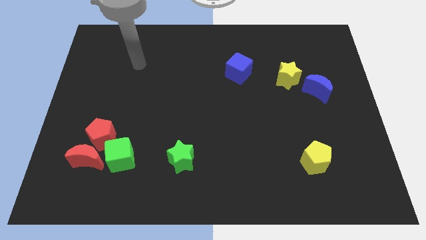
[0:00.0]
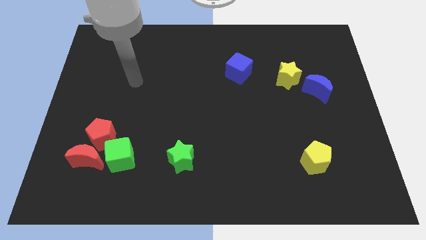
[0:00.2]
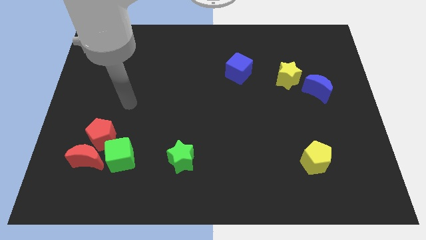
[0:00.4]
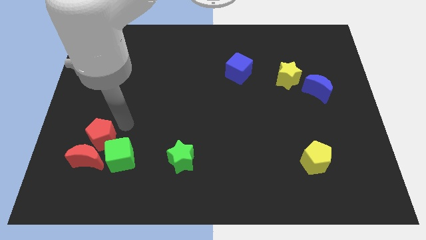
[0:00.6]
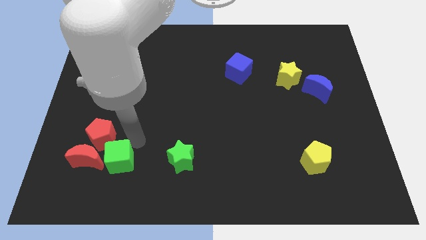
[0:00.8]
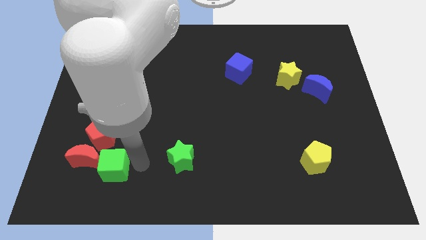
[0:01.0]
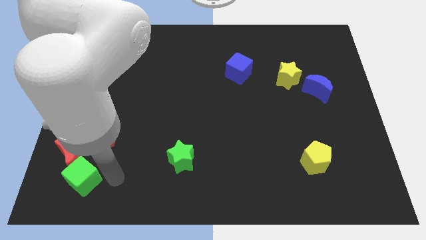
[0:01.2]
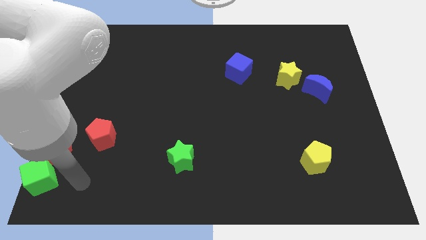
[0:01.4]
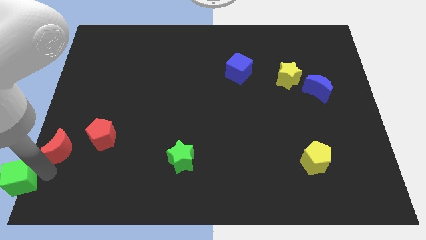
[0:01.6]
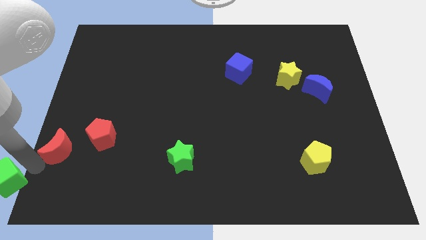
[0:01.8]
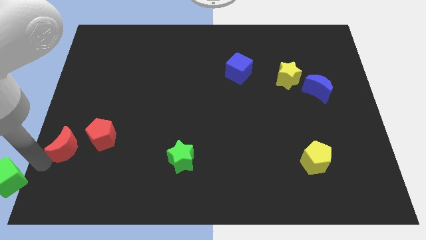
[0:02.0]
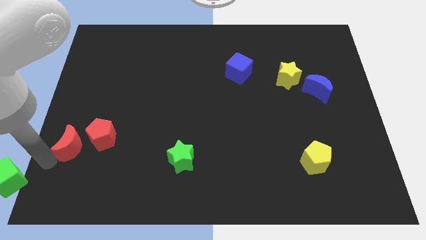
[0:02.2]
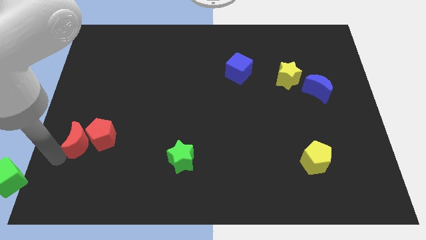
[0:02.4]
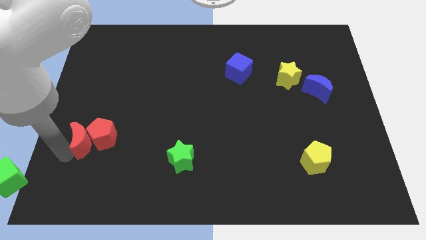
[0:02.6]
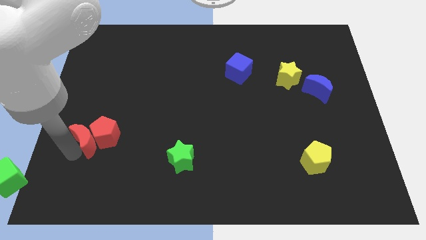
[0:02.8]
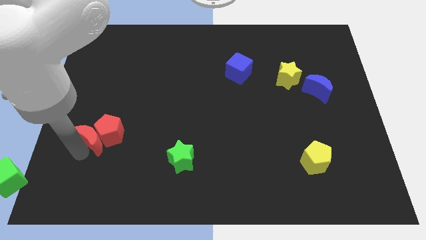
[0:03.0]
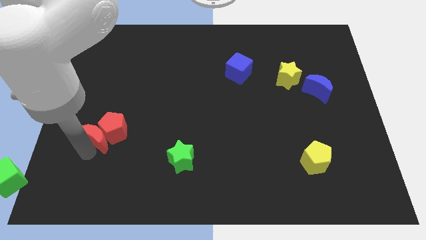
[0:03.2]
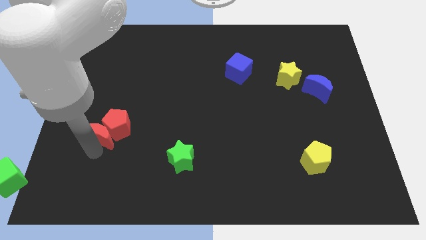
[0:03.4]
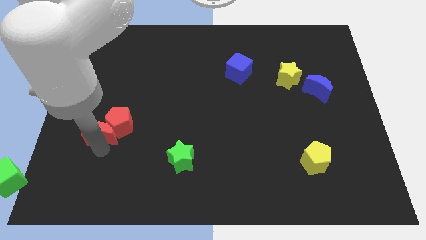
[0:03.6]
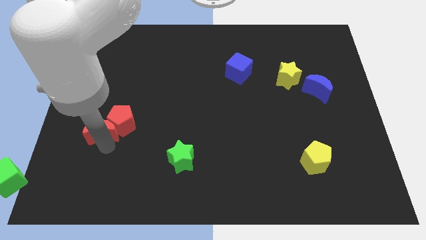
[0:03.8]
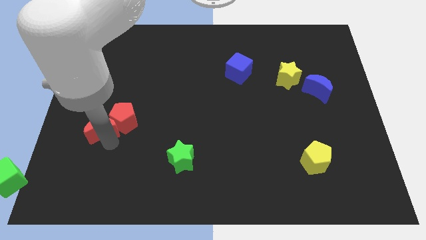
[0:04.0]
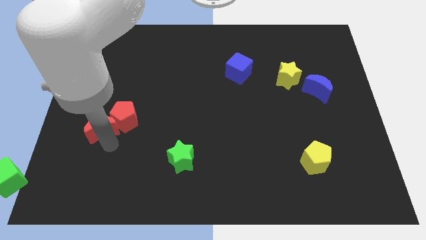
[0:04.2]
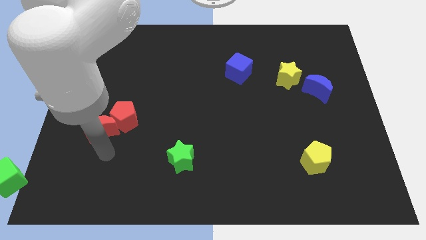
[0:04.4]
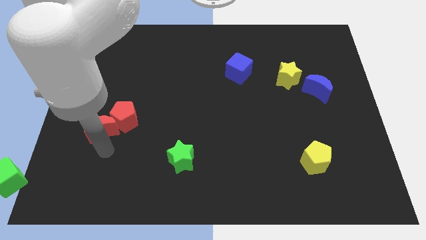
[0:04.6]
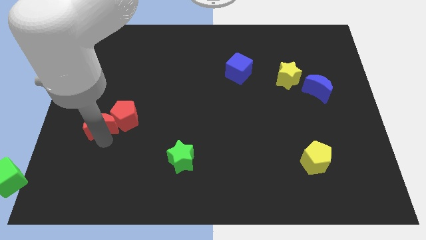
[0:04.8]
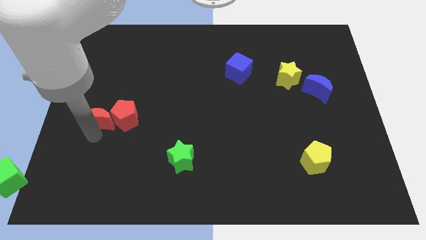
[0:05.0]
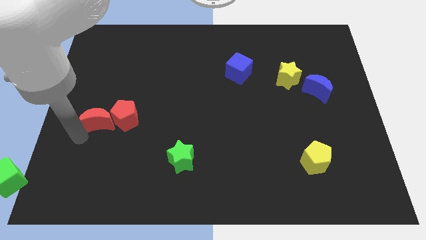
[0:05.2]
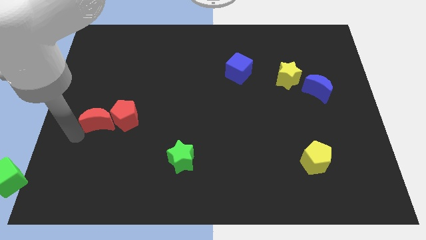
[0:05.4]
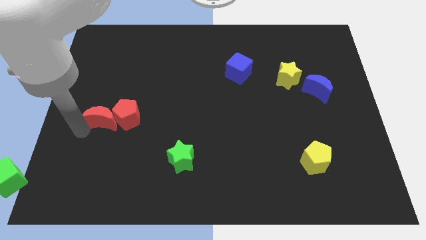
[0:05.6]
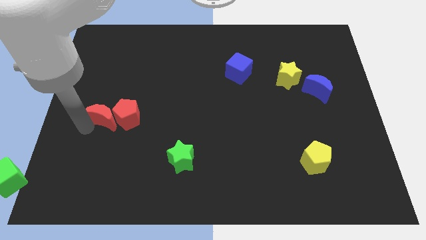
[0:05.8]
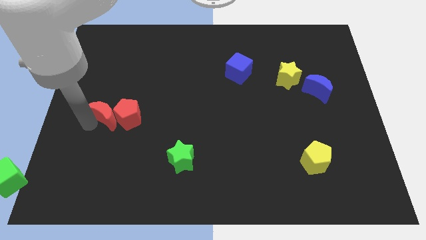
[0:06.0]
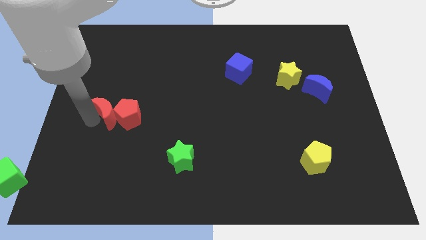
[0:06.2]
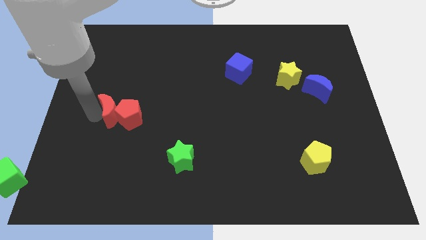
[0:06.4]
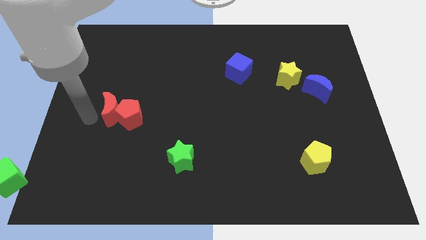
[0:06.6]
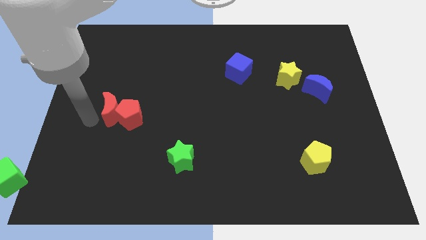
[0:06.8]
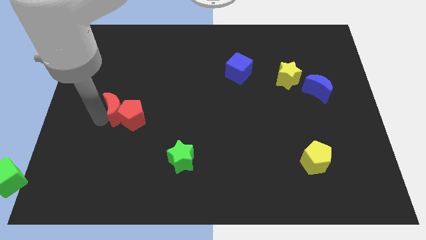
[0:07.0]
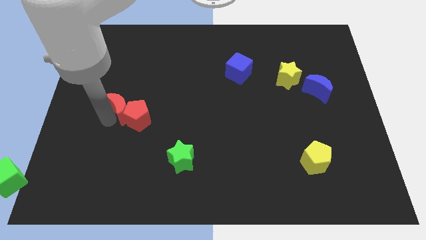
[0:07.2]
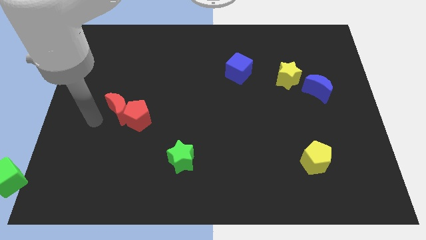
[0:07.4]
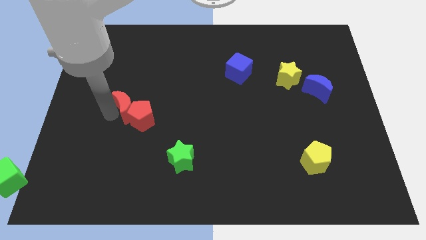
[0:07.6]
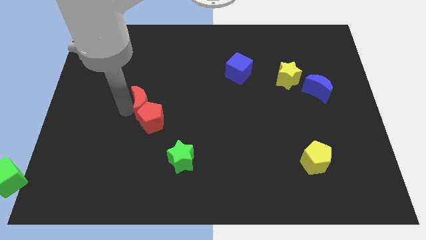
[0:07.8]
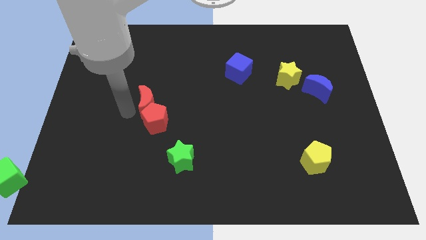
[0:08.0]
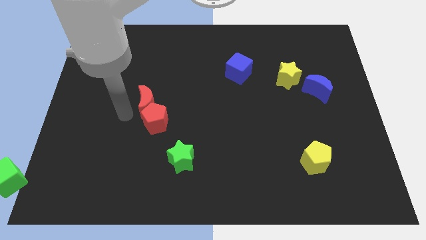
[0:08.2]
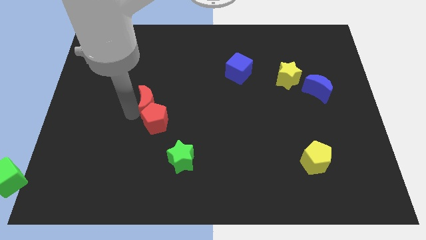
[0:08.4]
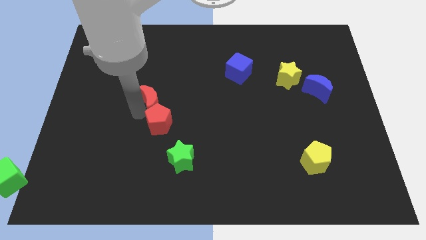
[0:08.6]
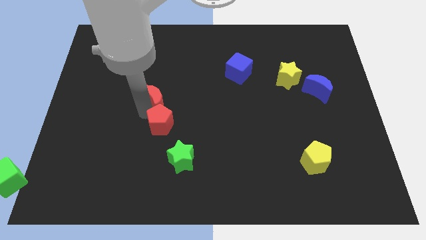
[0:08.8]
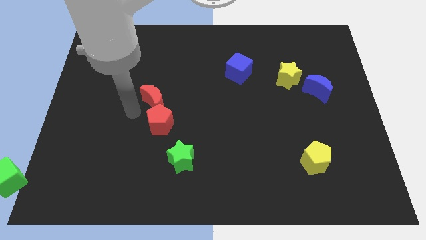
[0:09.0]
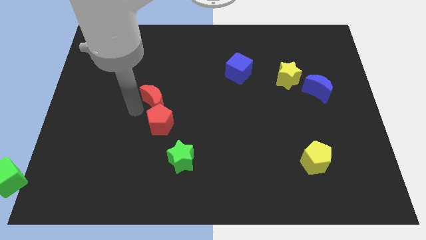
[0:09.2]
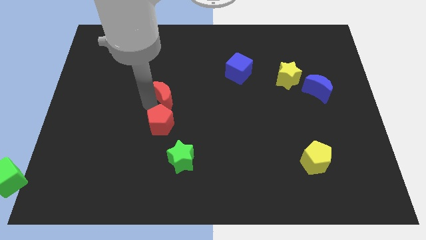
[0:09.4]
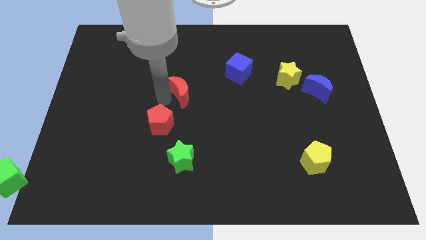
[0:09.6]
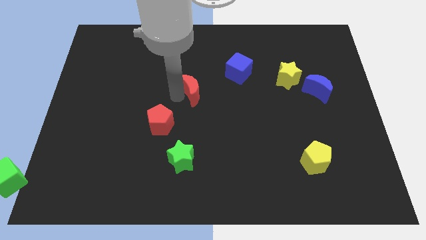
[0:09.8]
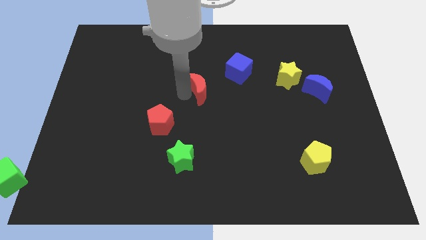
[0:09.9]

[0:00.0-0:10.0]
slide the red moon to the bottom left side of the blue cube

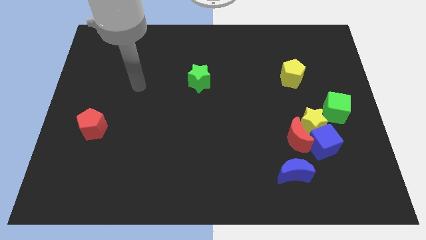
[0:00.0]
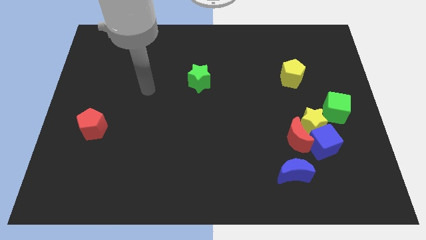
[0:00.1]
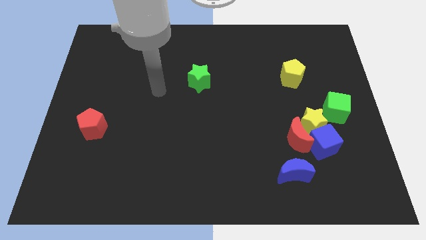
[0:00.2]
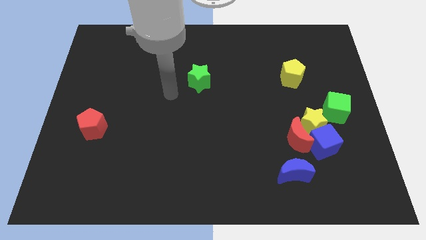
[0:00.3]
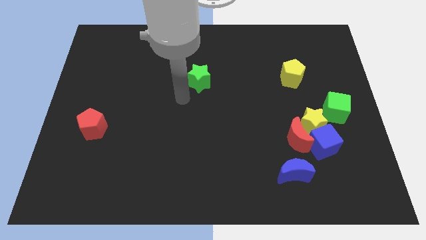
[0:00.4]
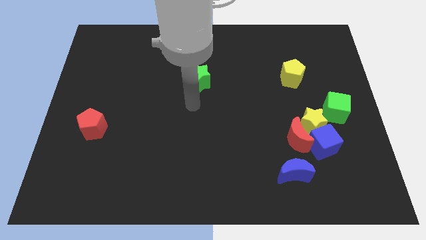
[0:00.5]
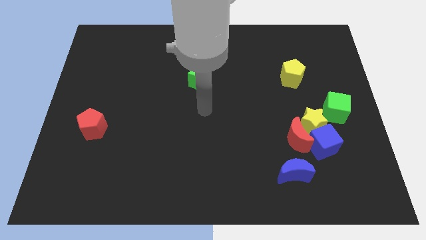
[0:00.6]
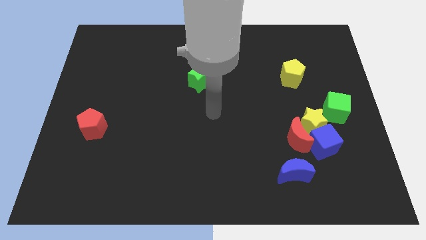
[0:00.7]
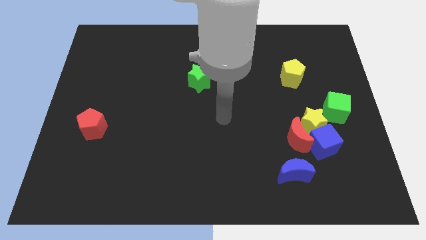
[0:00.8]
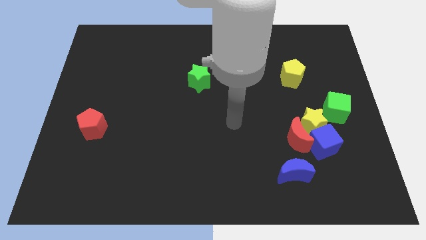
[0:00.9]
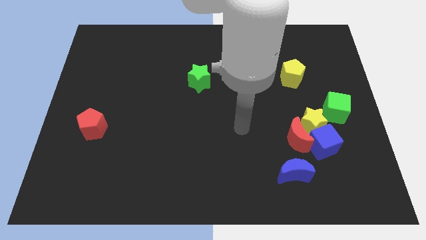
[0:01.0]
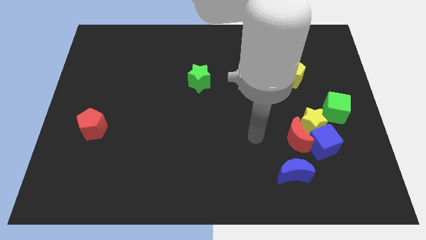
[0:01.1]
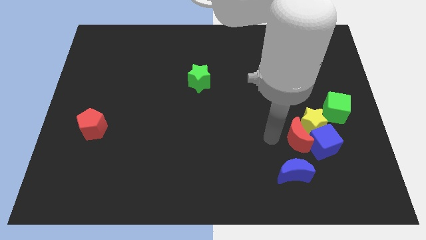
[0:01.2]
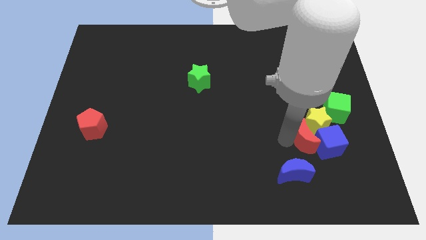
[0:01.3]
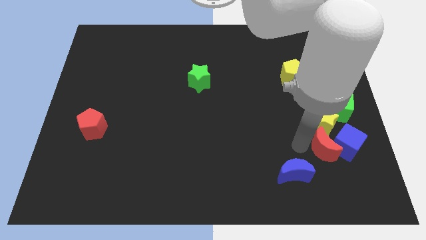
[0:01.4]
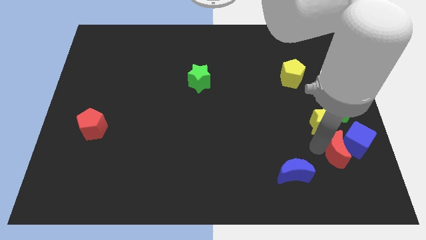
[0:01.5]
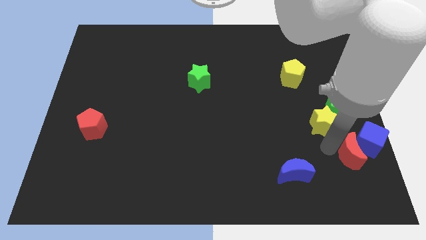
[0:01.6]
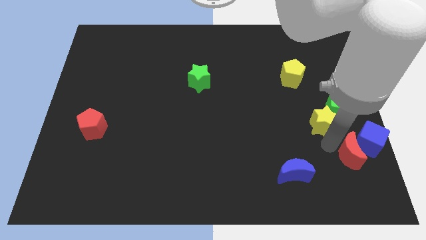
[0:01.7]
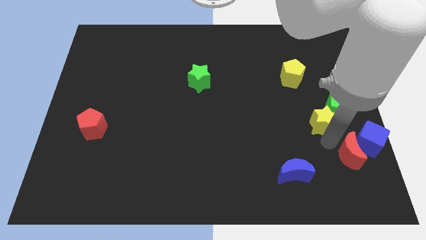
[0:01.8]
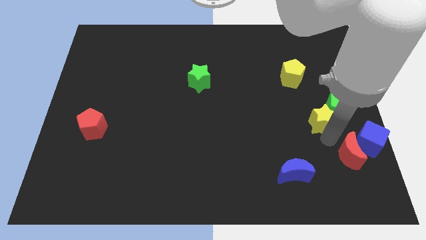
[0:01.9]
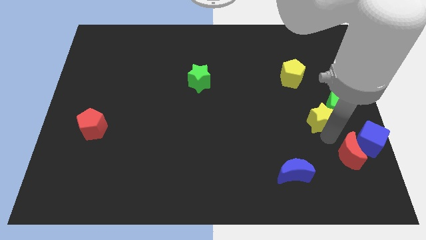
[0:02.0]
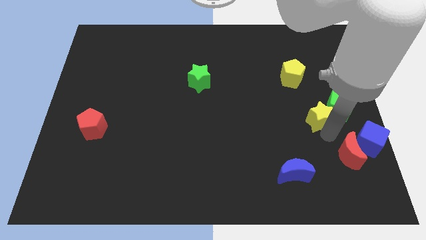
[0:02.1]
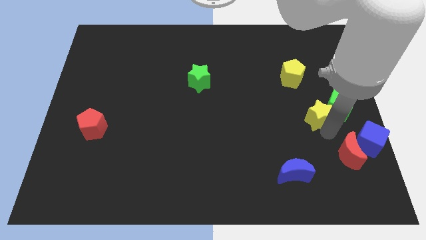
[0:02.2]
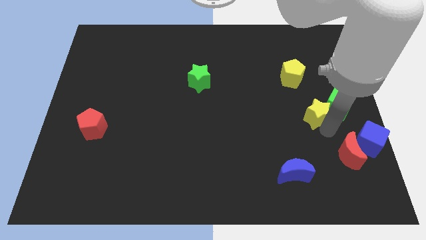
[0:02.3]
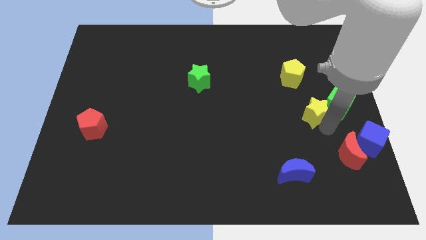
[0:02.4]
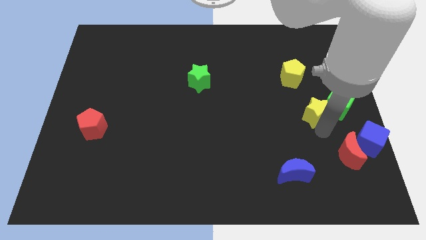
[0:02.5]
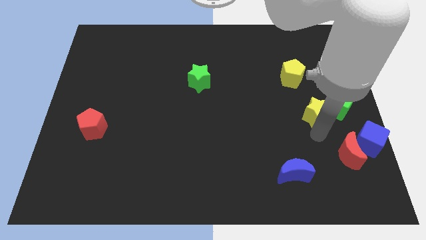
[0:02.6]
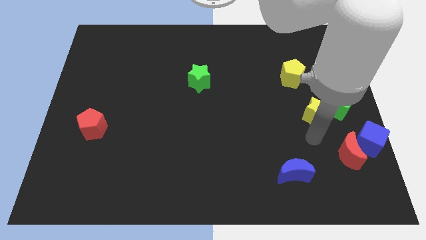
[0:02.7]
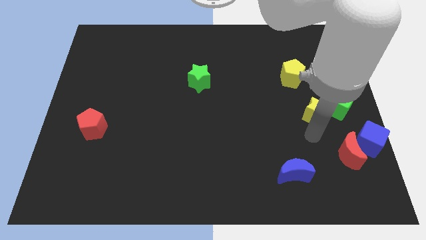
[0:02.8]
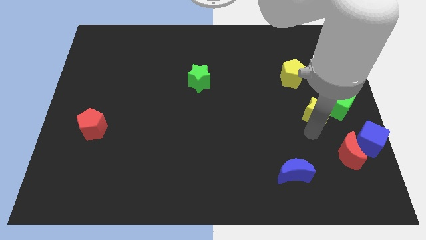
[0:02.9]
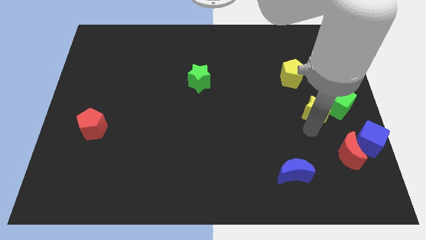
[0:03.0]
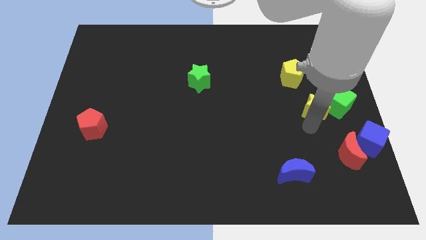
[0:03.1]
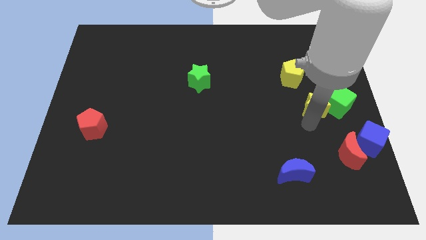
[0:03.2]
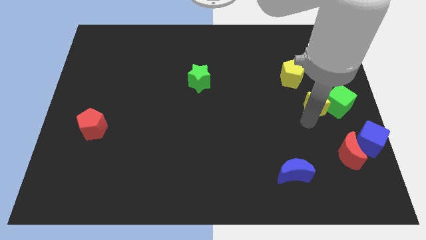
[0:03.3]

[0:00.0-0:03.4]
slide the yellow star diagonally down and to the right of the yellow pentagon
